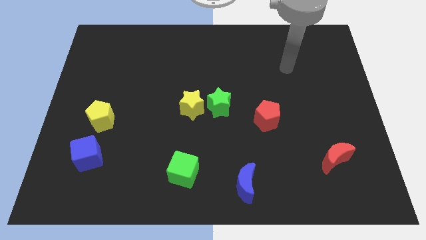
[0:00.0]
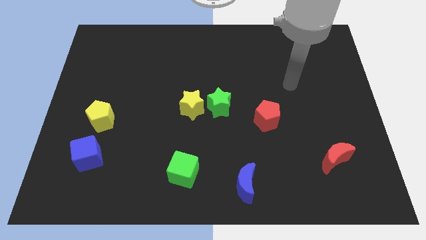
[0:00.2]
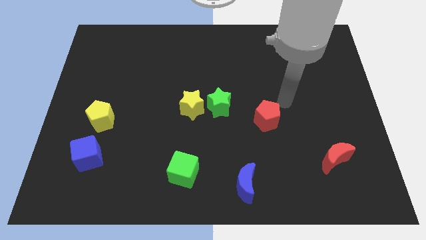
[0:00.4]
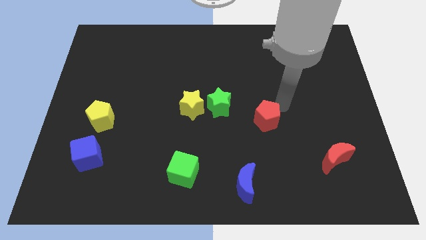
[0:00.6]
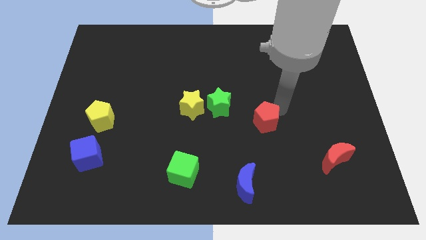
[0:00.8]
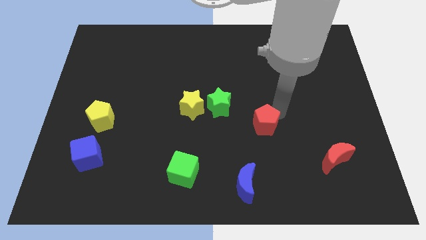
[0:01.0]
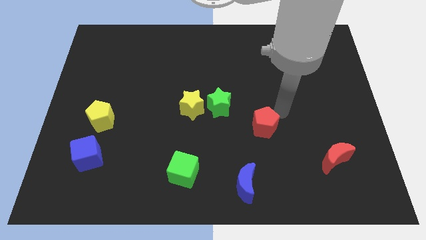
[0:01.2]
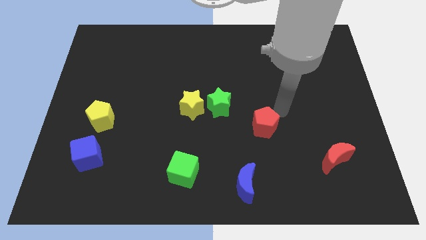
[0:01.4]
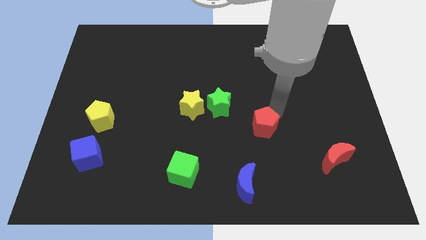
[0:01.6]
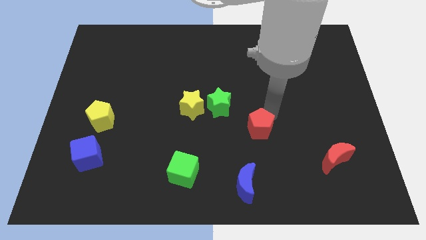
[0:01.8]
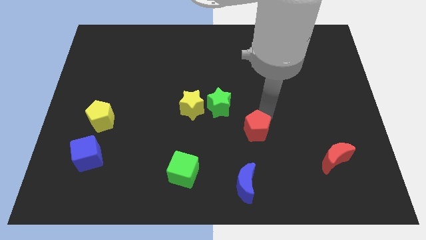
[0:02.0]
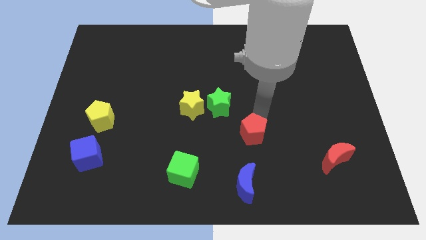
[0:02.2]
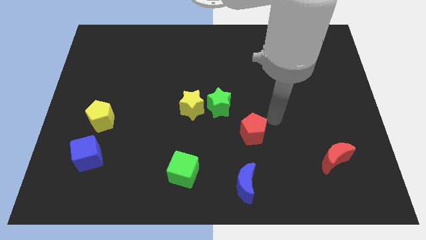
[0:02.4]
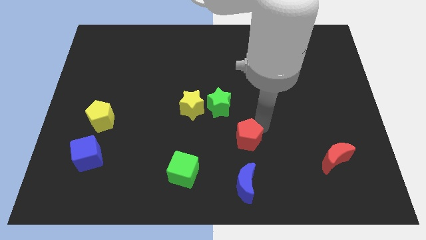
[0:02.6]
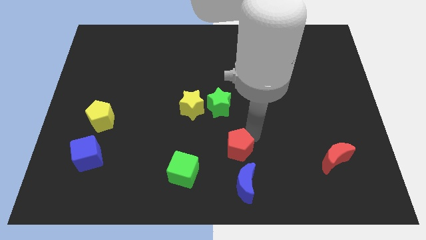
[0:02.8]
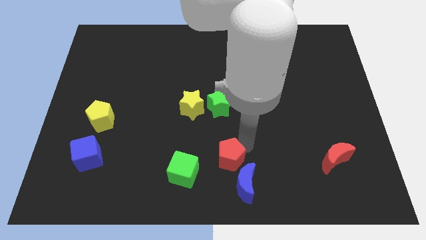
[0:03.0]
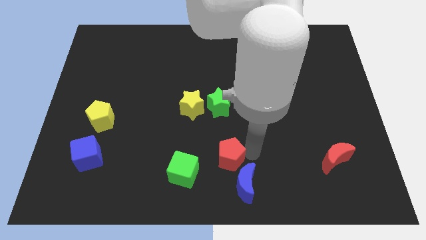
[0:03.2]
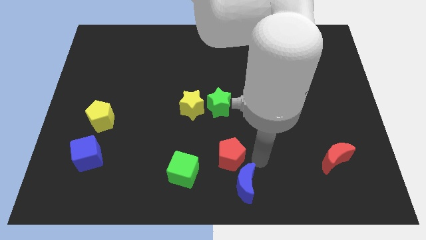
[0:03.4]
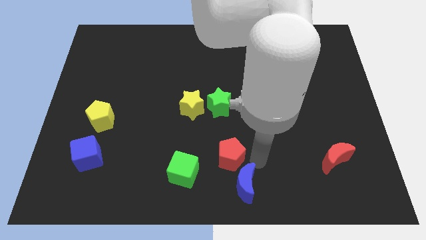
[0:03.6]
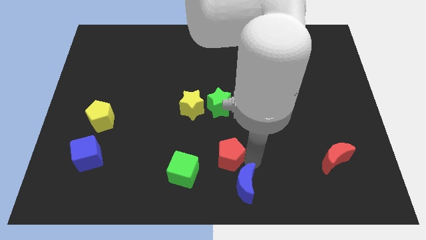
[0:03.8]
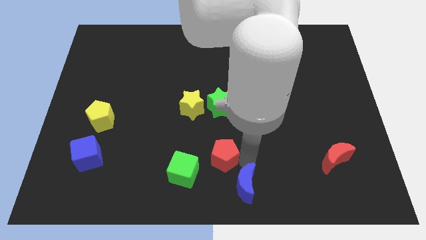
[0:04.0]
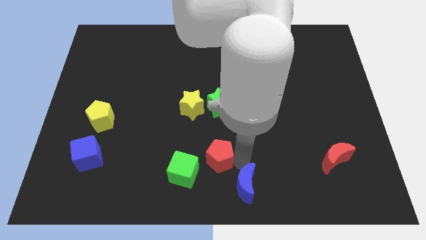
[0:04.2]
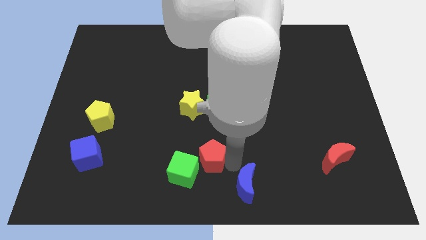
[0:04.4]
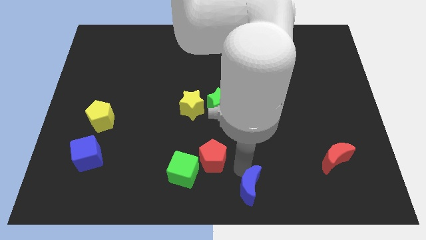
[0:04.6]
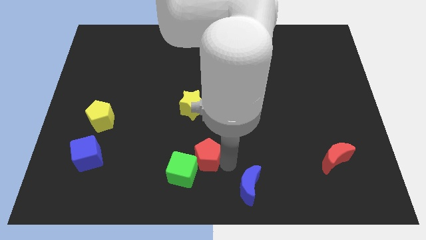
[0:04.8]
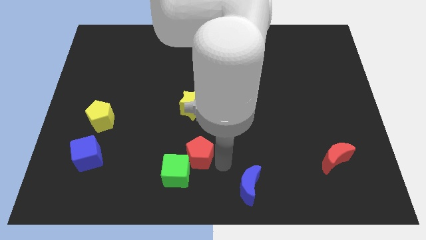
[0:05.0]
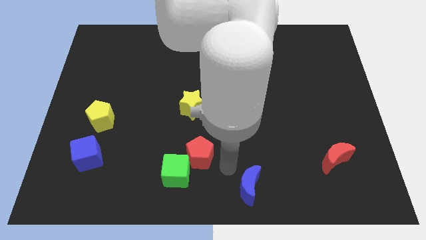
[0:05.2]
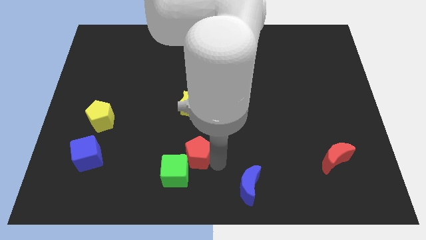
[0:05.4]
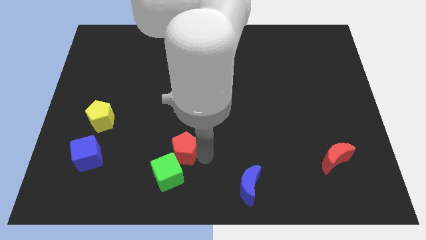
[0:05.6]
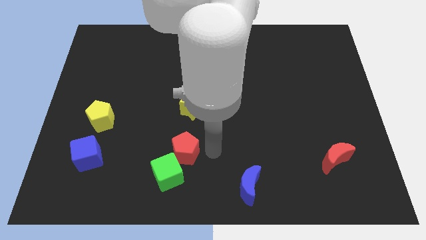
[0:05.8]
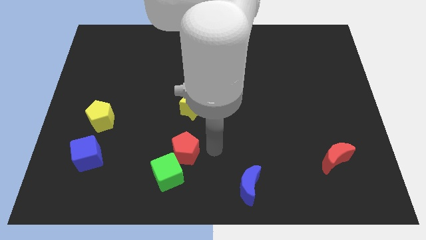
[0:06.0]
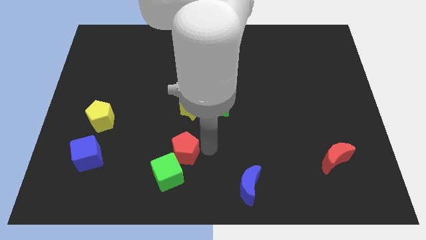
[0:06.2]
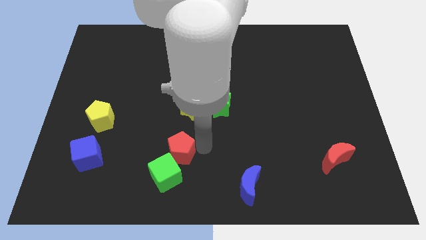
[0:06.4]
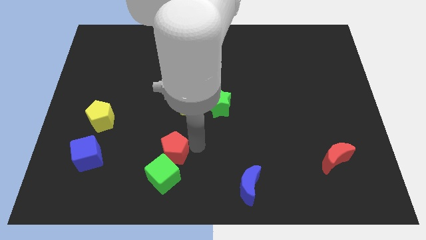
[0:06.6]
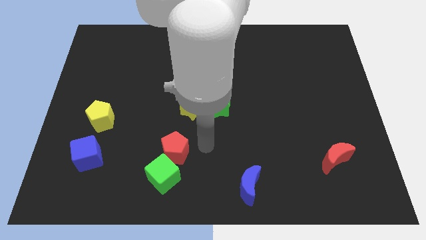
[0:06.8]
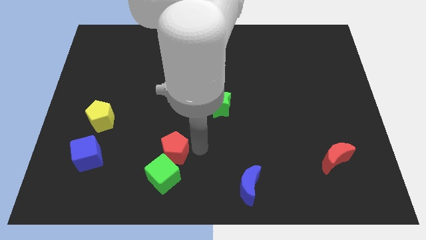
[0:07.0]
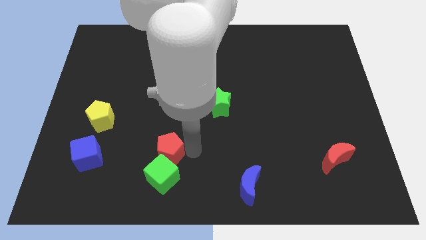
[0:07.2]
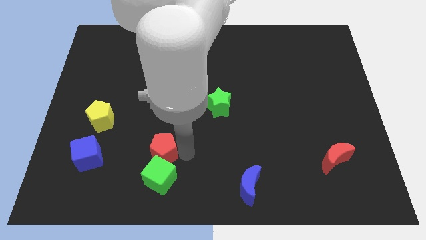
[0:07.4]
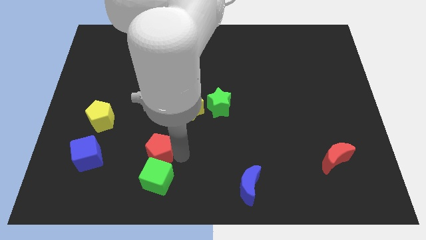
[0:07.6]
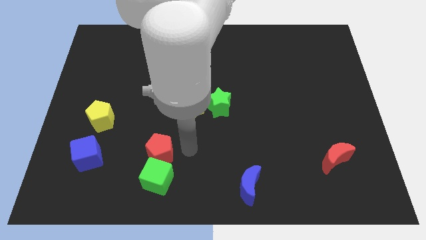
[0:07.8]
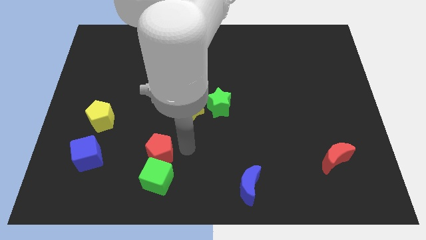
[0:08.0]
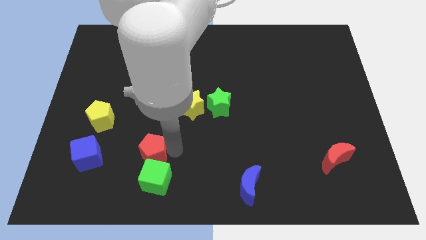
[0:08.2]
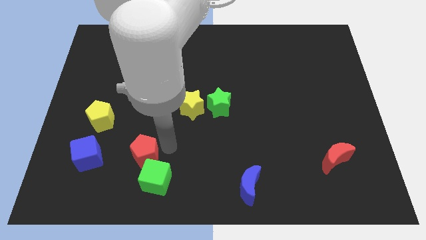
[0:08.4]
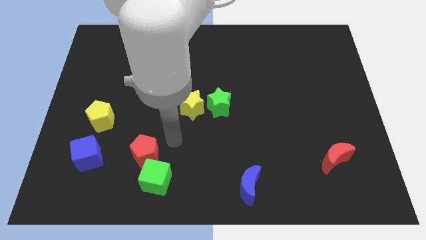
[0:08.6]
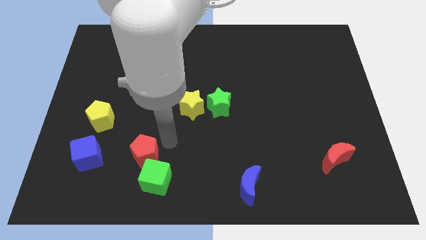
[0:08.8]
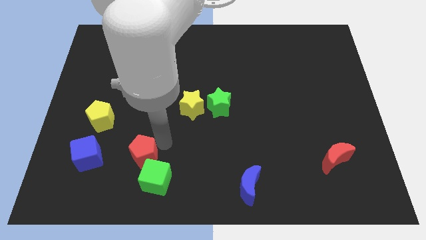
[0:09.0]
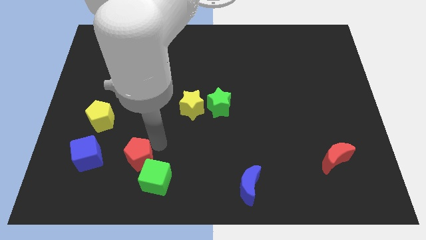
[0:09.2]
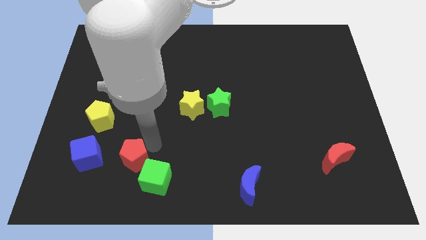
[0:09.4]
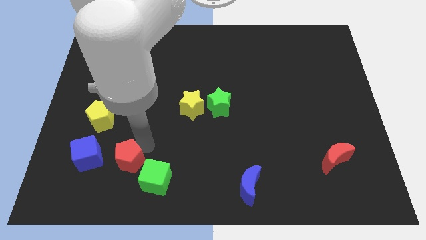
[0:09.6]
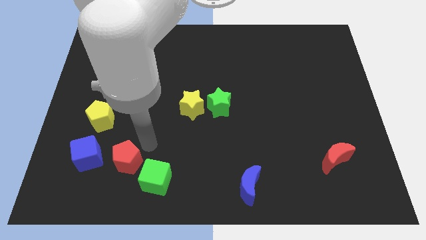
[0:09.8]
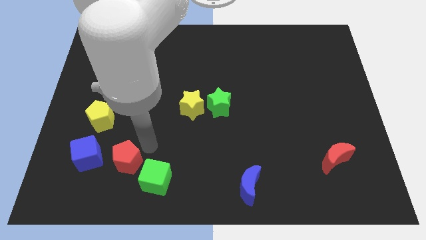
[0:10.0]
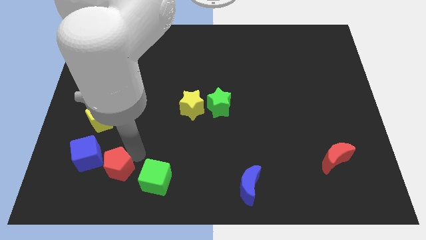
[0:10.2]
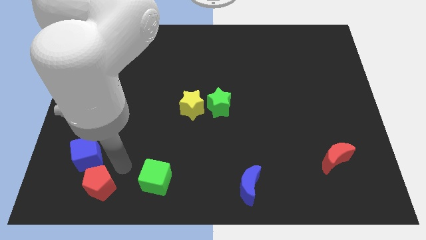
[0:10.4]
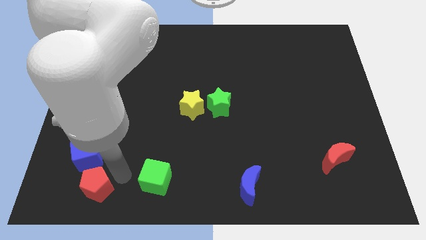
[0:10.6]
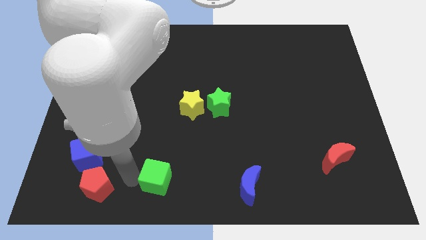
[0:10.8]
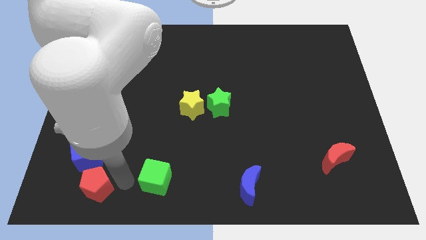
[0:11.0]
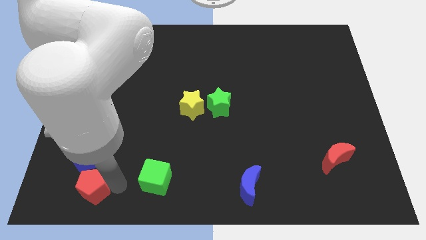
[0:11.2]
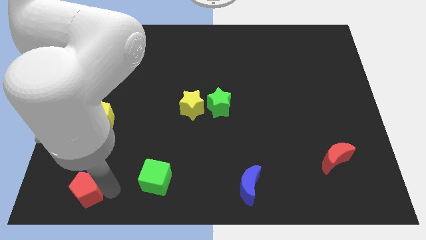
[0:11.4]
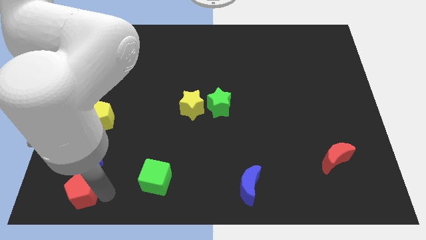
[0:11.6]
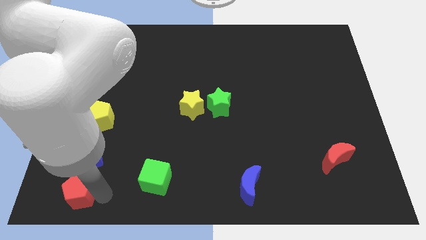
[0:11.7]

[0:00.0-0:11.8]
put the red pentagon to the bottom left of the board
